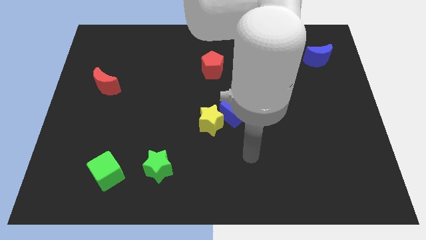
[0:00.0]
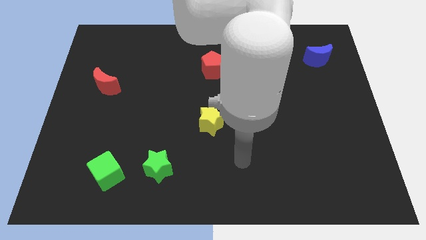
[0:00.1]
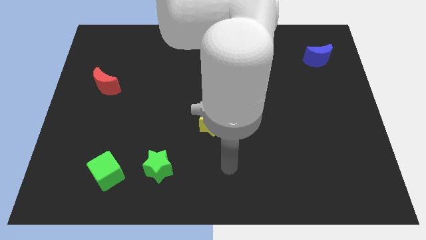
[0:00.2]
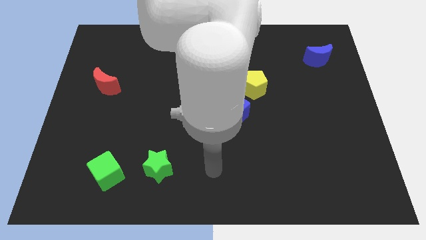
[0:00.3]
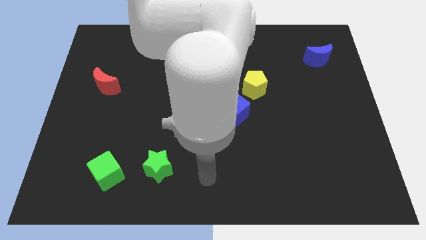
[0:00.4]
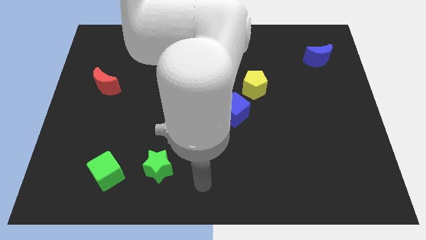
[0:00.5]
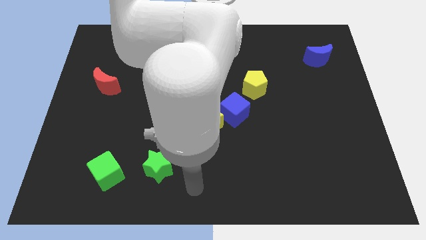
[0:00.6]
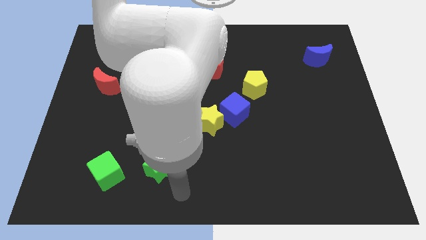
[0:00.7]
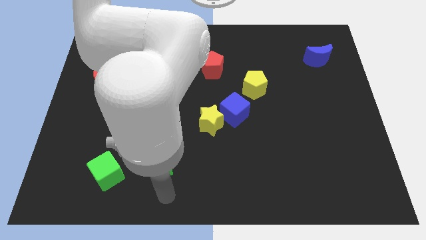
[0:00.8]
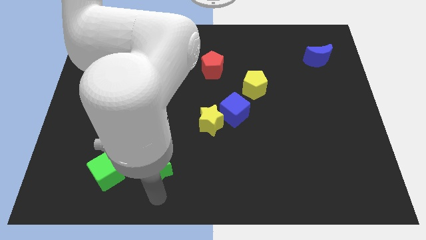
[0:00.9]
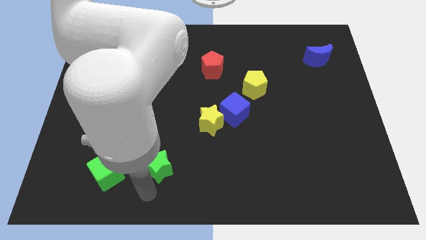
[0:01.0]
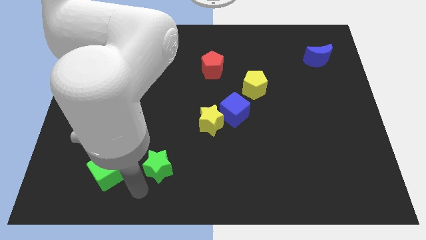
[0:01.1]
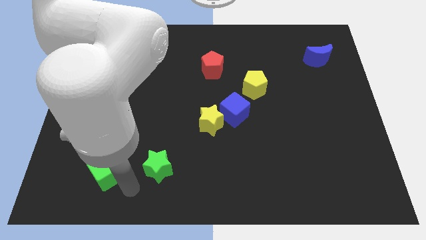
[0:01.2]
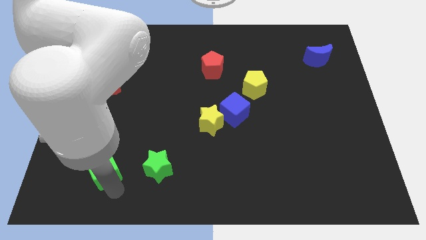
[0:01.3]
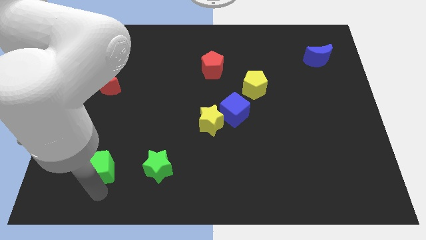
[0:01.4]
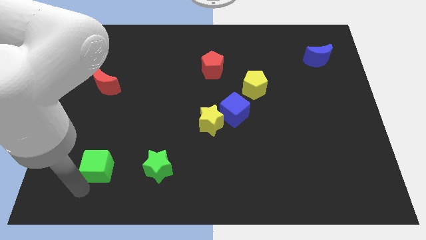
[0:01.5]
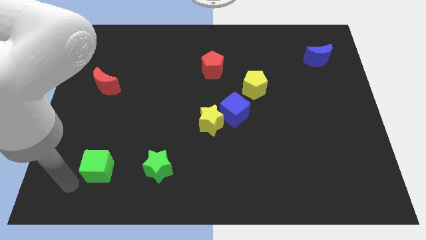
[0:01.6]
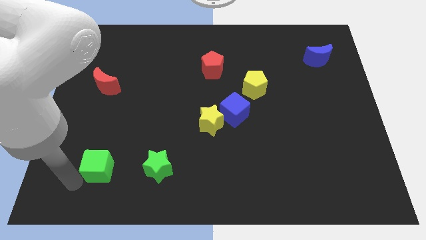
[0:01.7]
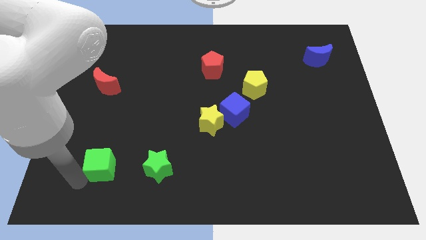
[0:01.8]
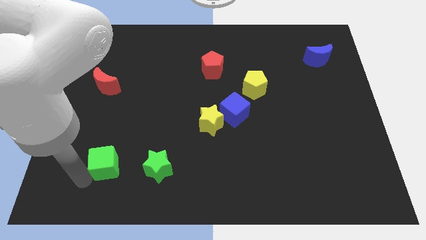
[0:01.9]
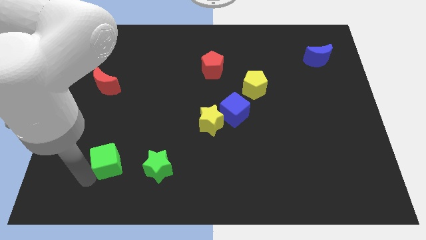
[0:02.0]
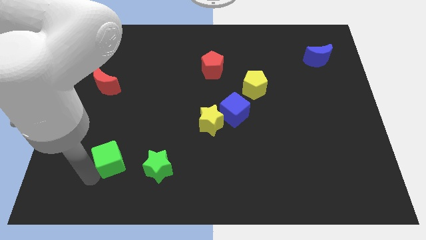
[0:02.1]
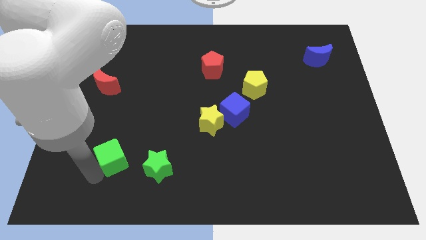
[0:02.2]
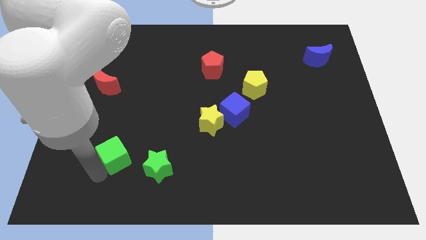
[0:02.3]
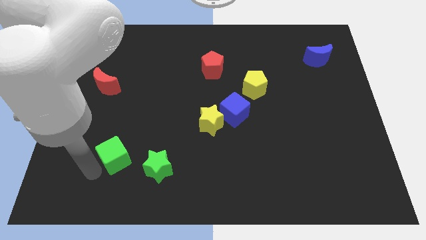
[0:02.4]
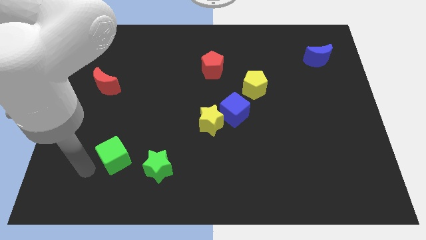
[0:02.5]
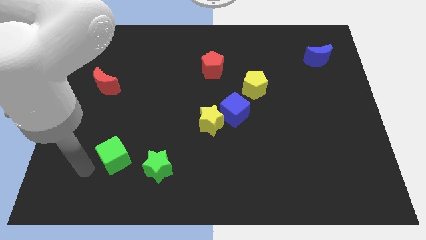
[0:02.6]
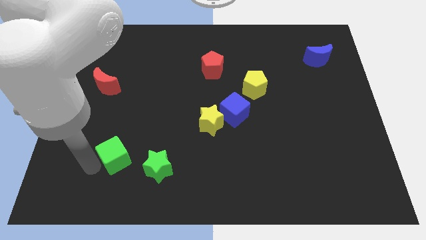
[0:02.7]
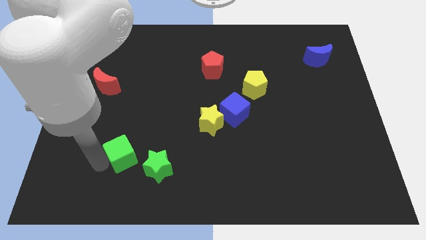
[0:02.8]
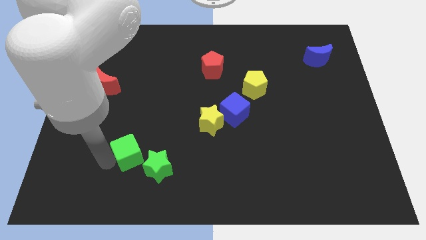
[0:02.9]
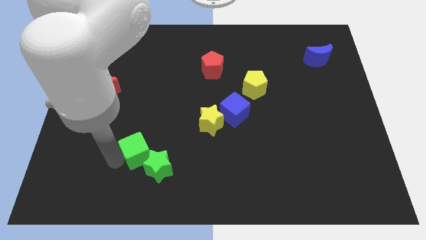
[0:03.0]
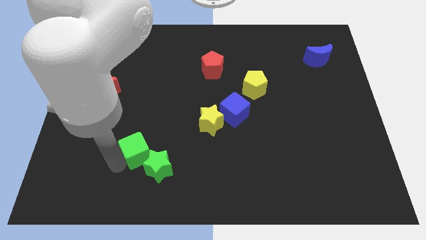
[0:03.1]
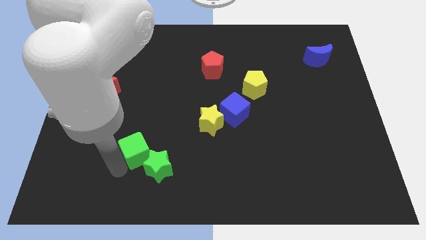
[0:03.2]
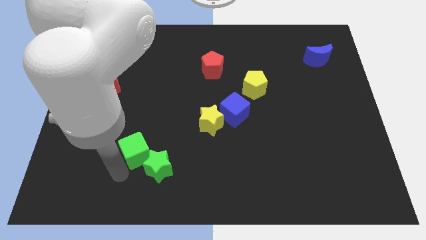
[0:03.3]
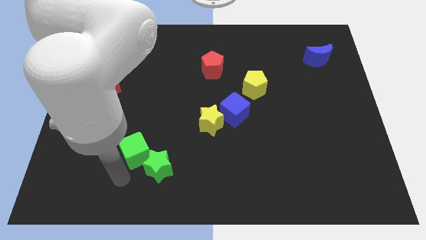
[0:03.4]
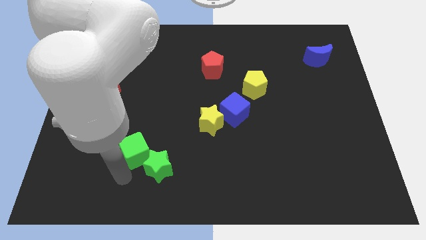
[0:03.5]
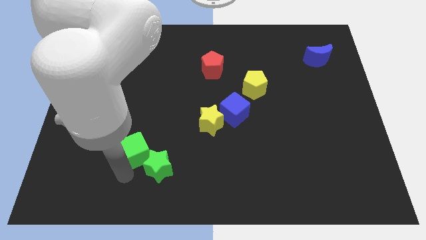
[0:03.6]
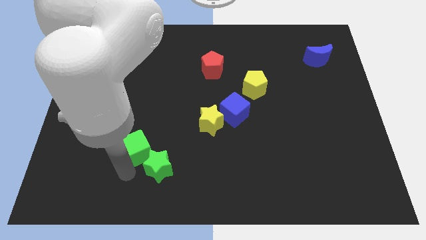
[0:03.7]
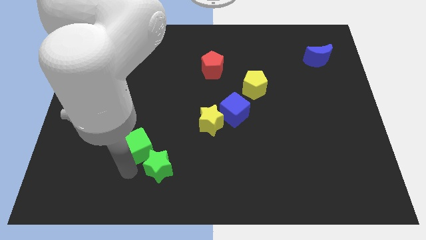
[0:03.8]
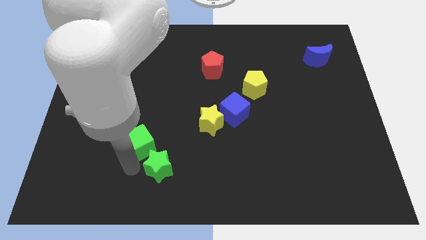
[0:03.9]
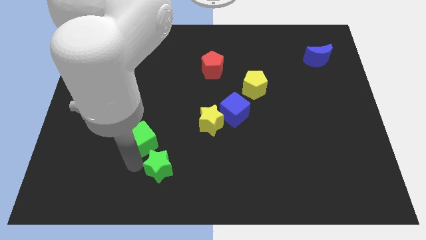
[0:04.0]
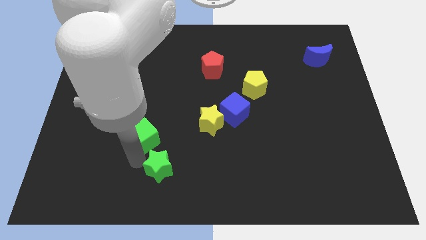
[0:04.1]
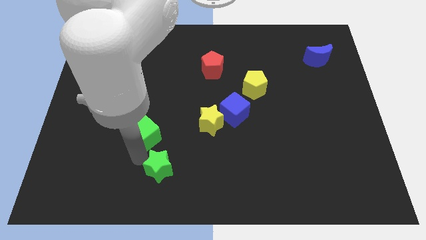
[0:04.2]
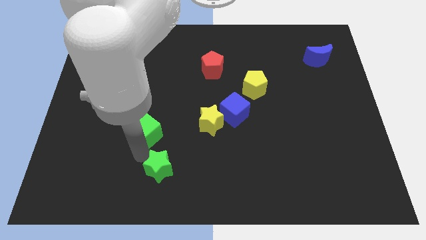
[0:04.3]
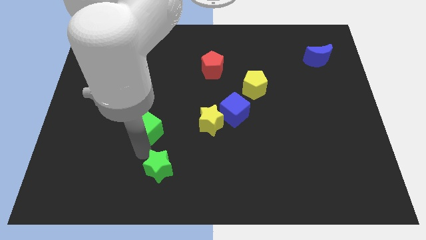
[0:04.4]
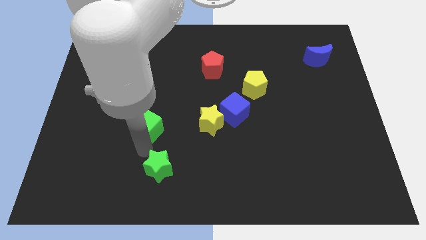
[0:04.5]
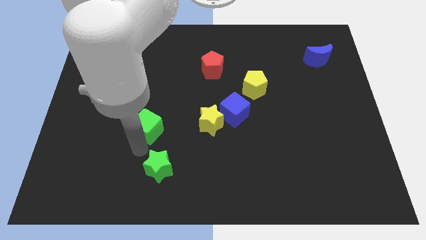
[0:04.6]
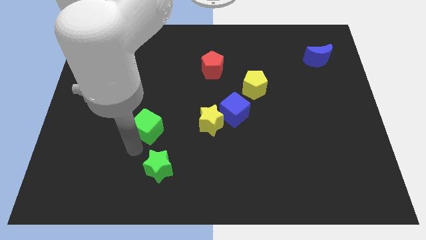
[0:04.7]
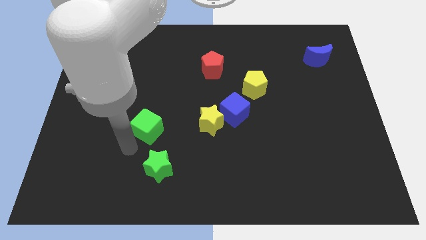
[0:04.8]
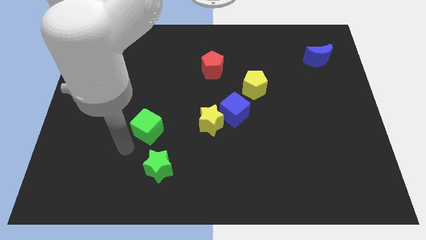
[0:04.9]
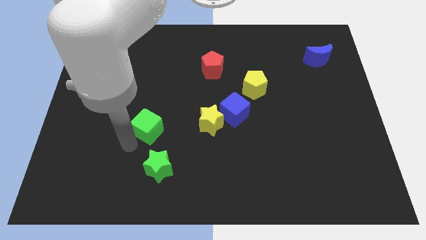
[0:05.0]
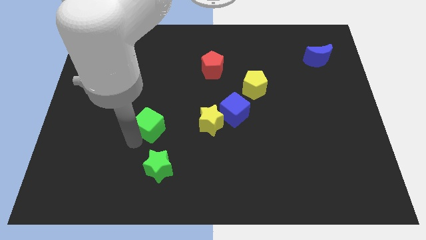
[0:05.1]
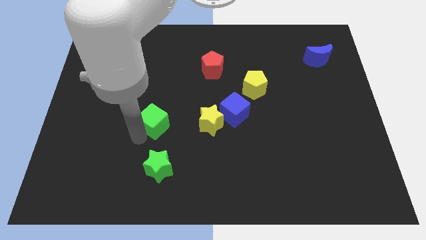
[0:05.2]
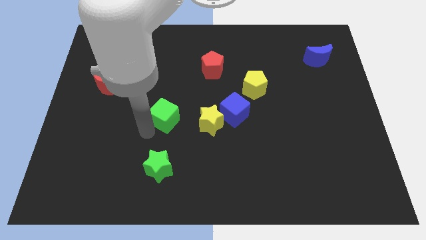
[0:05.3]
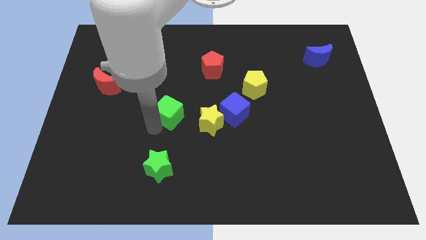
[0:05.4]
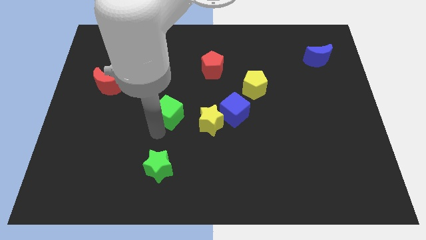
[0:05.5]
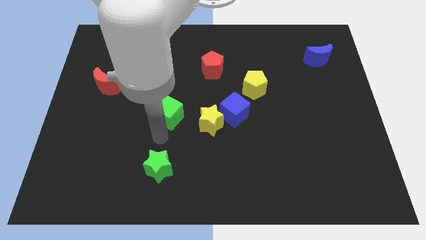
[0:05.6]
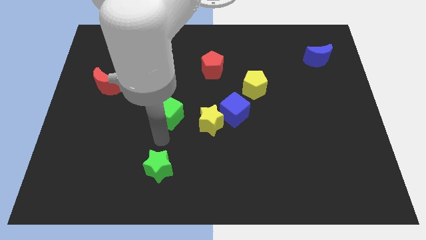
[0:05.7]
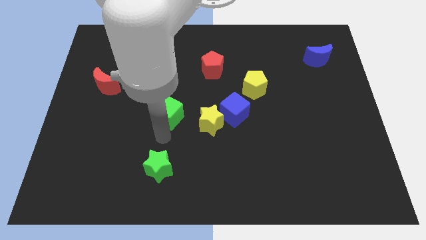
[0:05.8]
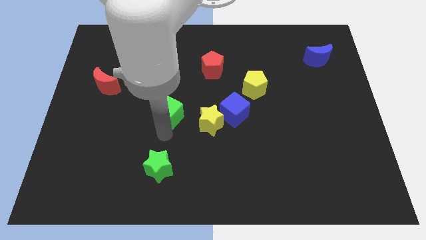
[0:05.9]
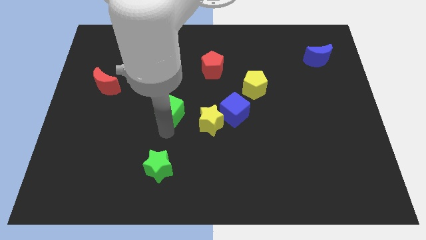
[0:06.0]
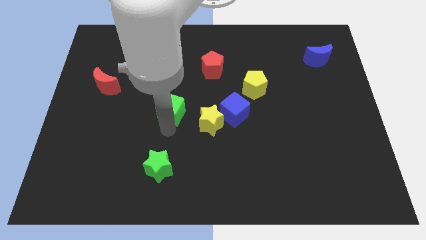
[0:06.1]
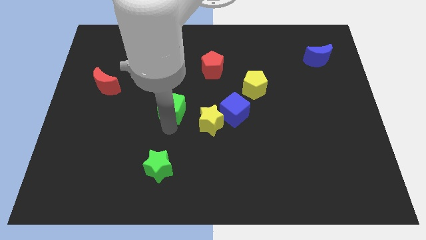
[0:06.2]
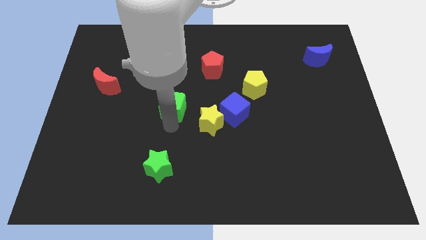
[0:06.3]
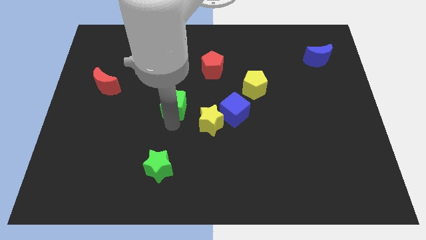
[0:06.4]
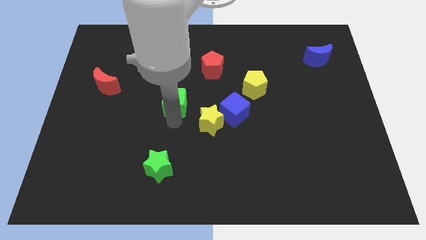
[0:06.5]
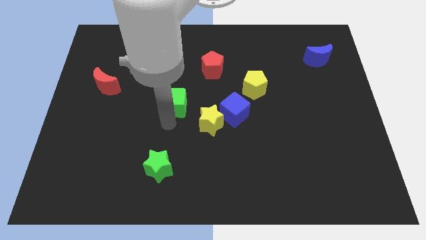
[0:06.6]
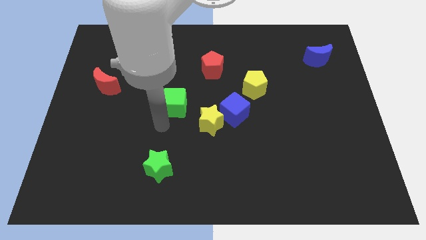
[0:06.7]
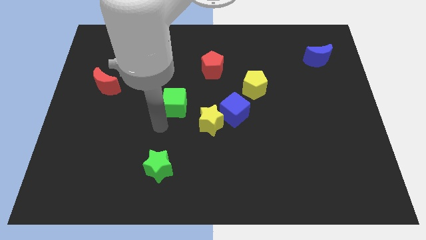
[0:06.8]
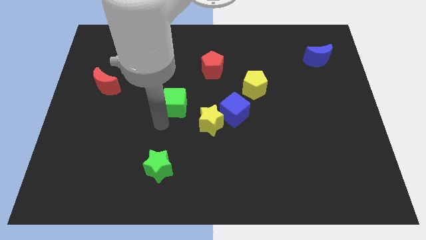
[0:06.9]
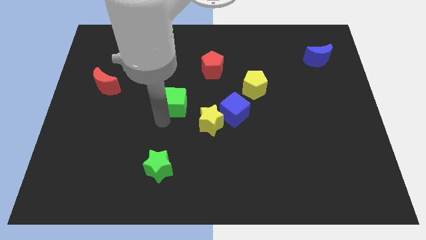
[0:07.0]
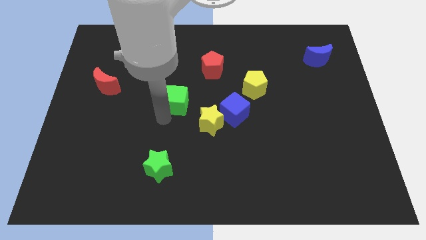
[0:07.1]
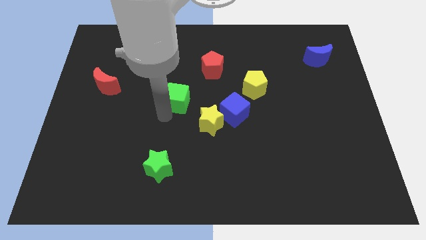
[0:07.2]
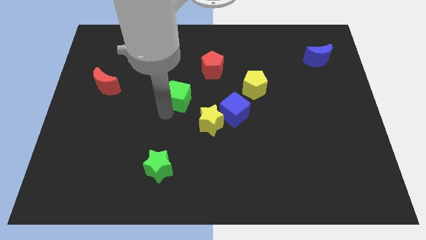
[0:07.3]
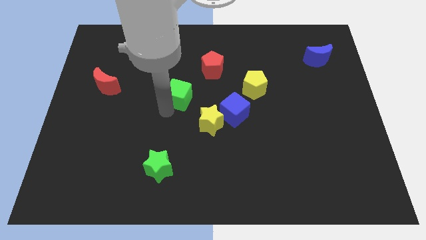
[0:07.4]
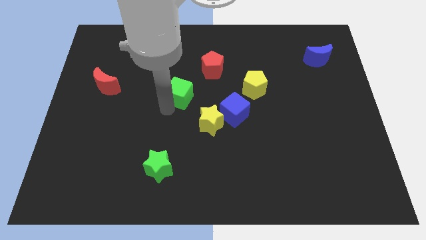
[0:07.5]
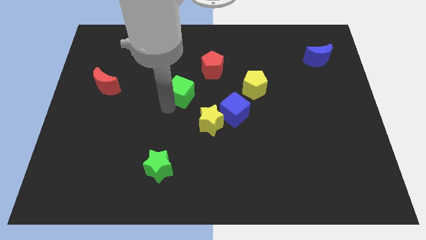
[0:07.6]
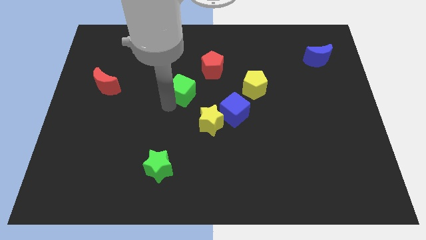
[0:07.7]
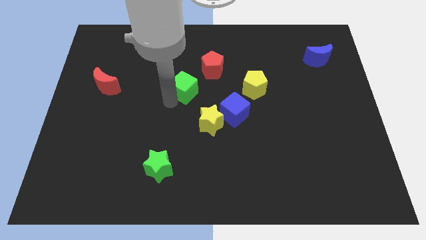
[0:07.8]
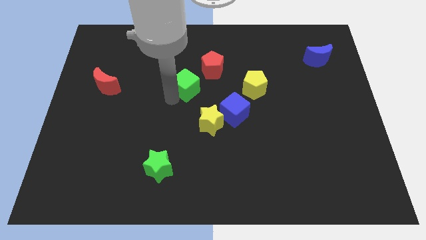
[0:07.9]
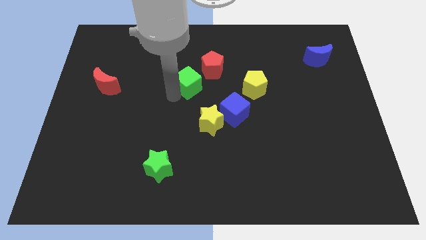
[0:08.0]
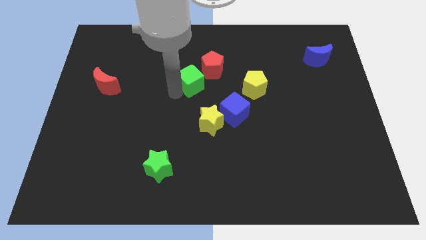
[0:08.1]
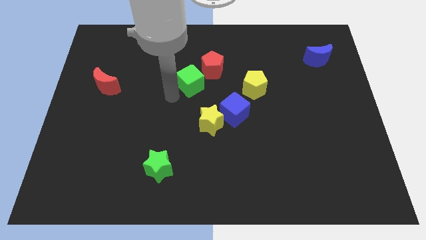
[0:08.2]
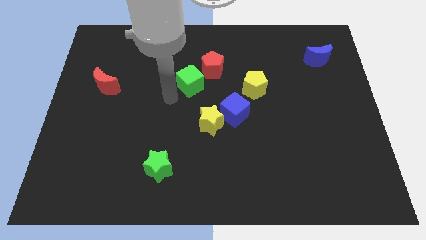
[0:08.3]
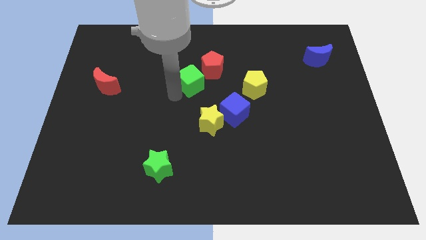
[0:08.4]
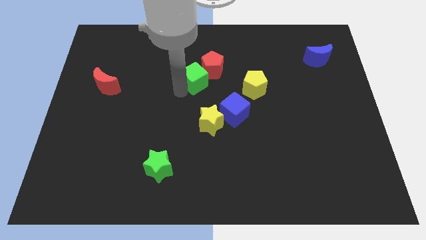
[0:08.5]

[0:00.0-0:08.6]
push the green cube towards the red pentagon
